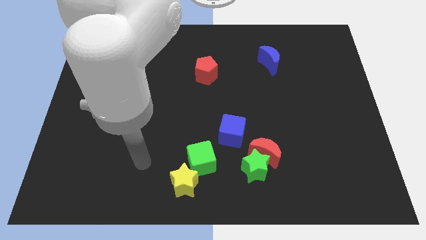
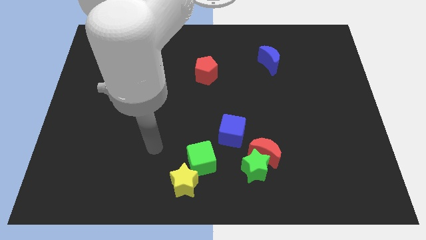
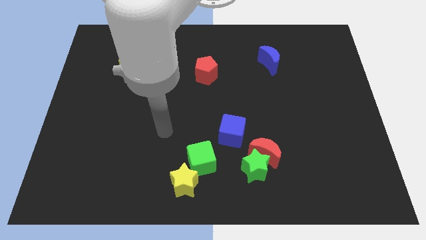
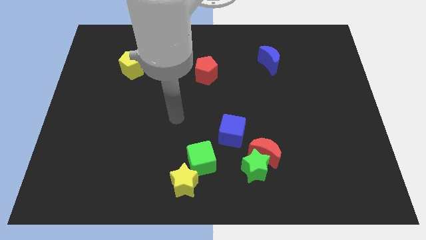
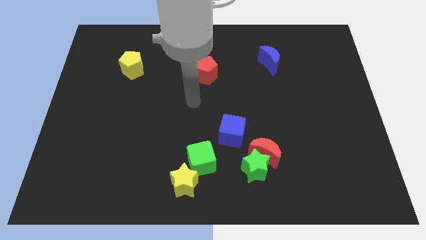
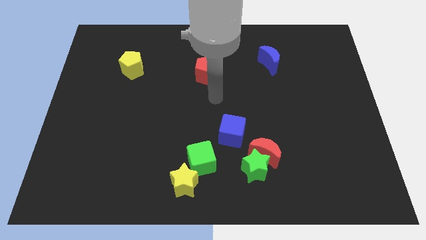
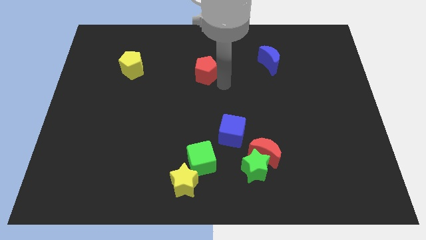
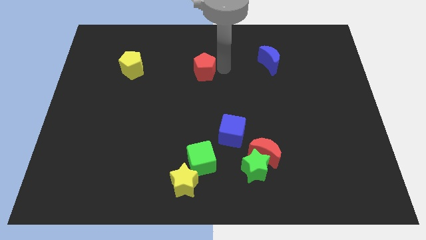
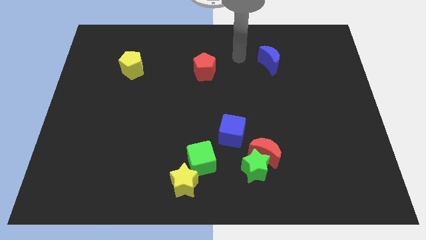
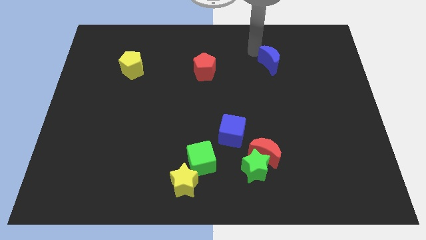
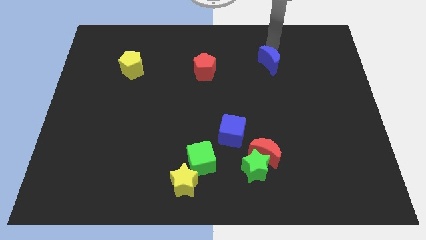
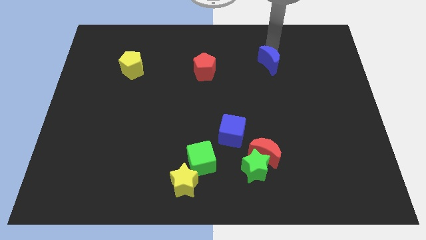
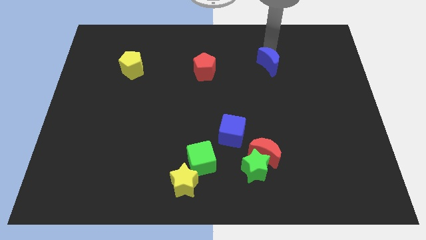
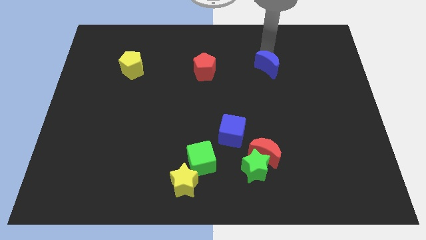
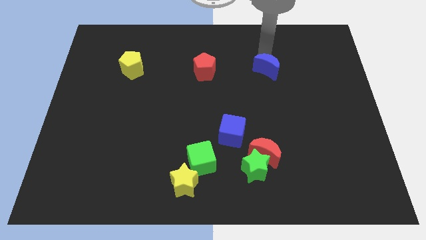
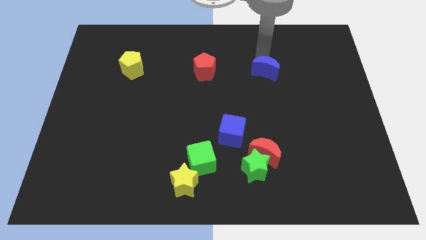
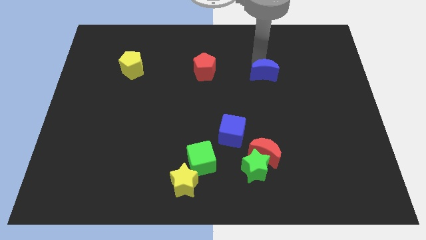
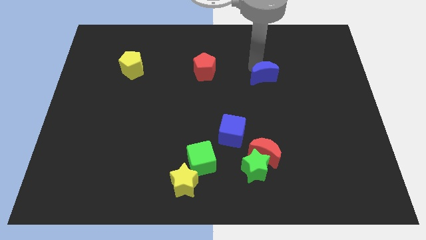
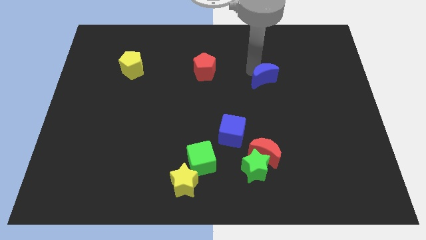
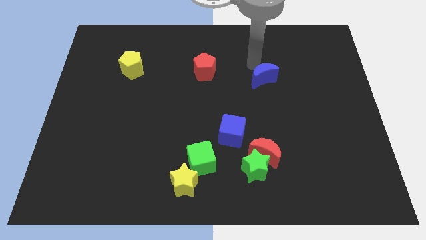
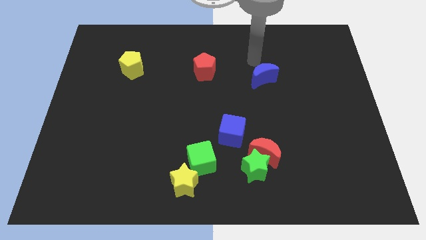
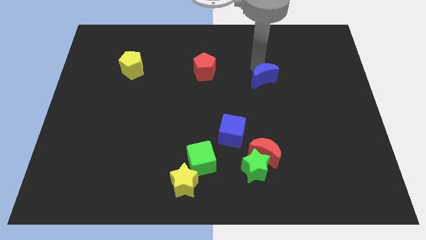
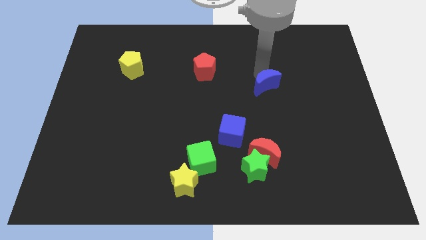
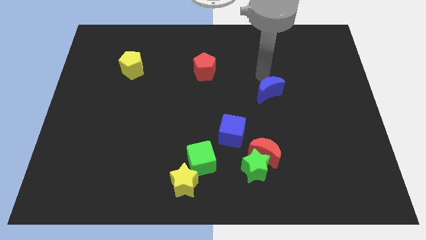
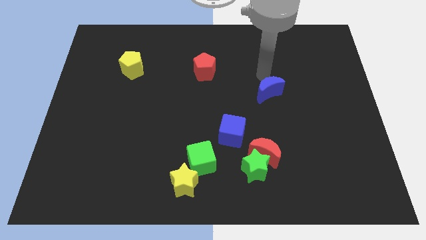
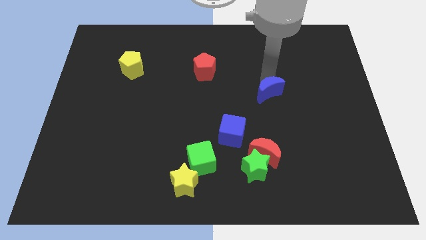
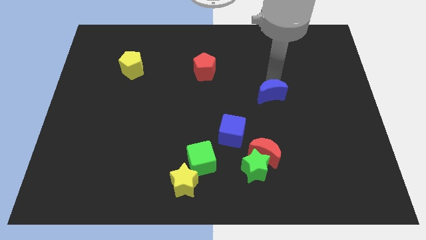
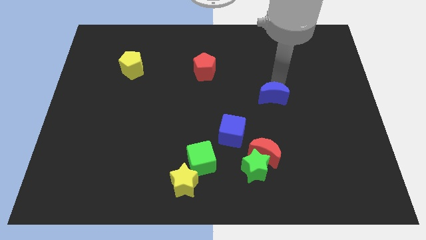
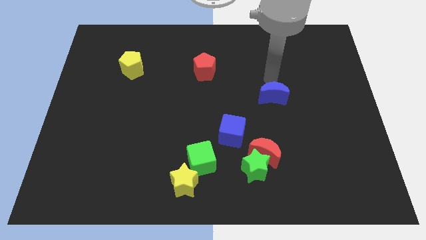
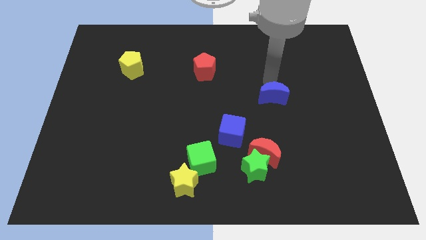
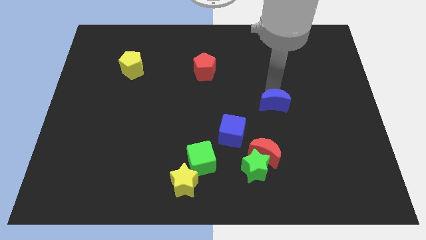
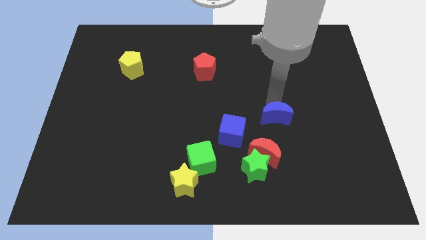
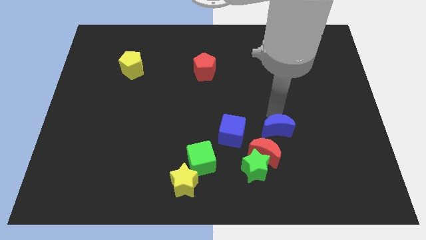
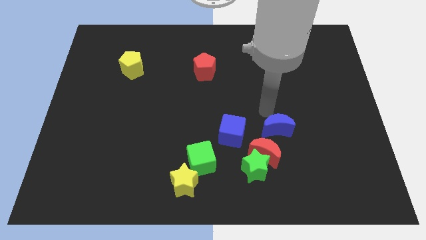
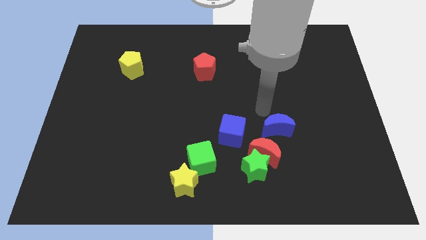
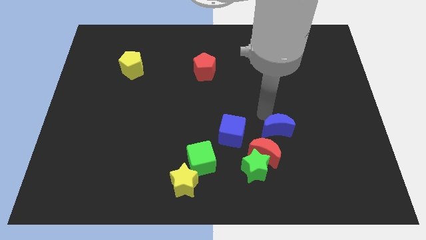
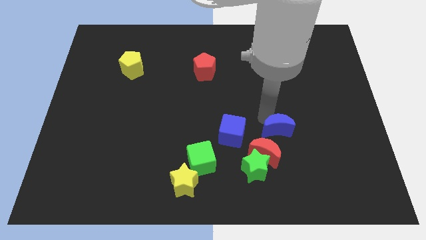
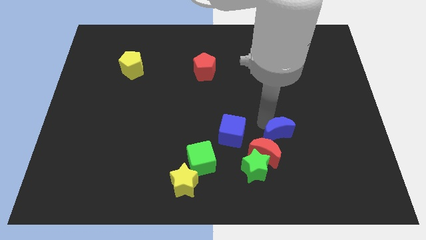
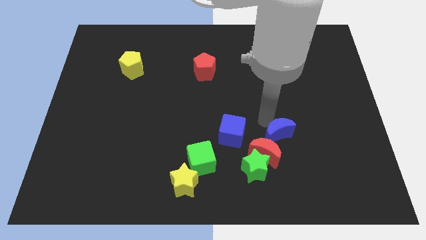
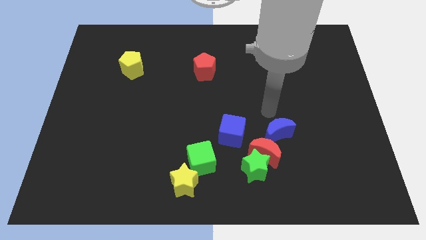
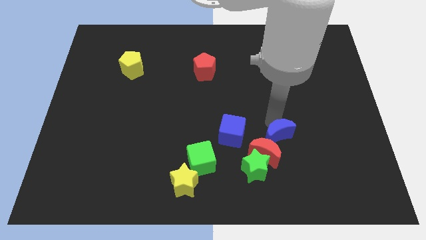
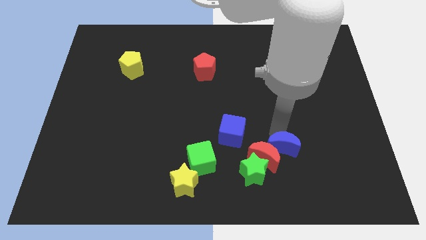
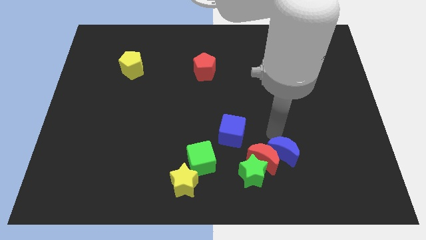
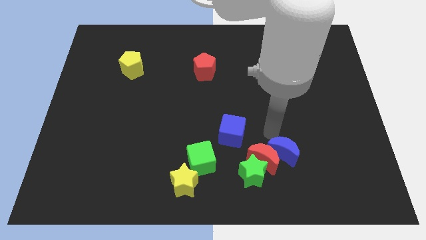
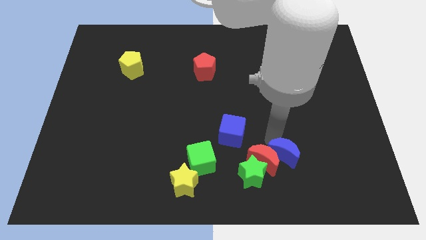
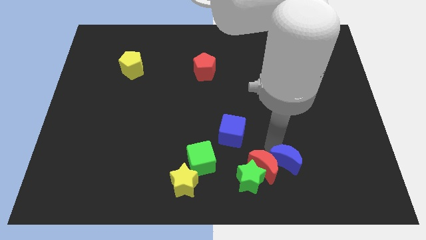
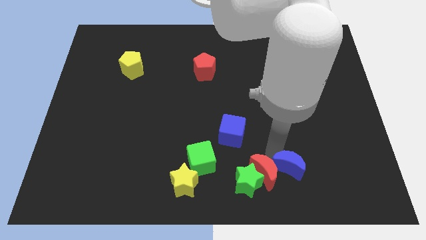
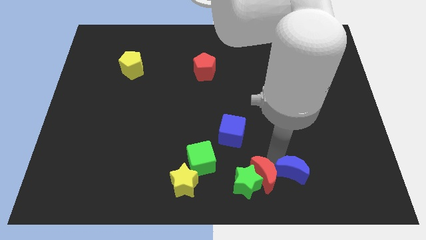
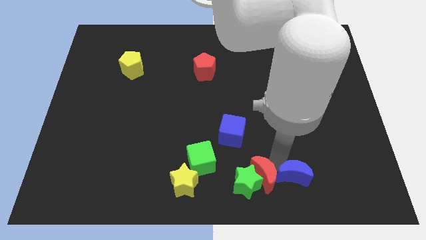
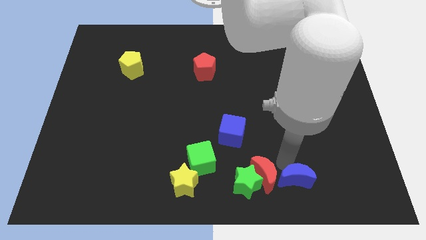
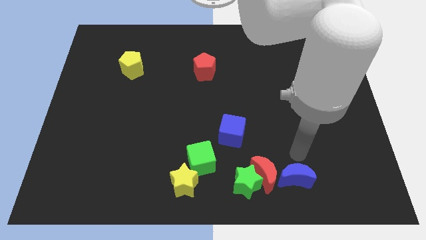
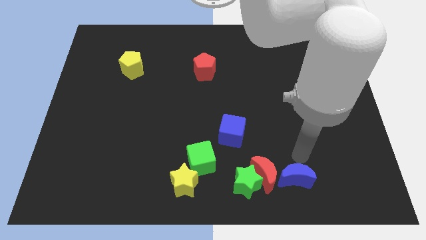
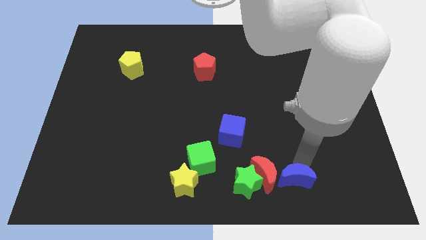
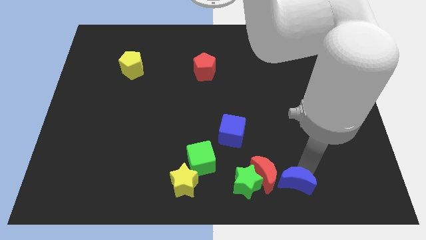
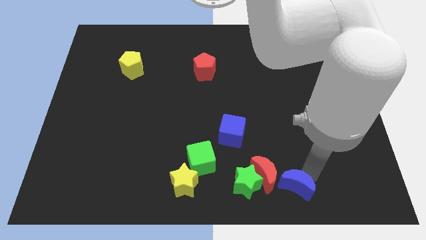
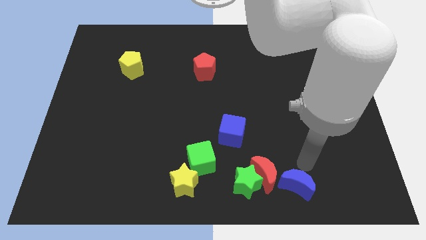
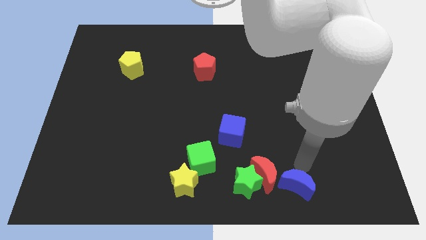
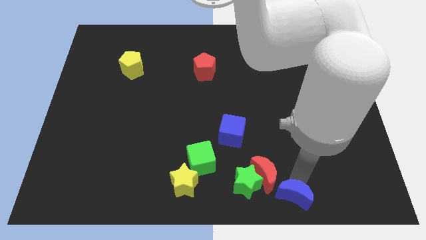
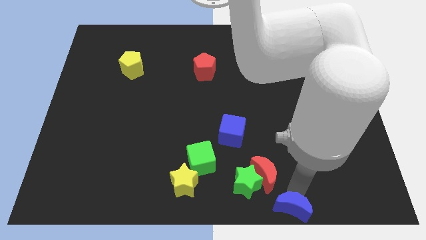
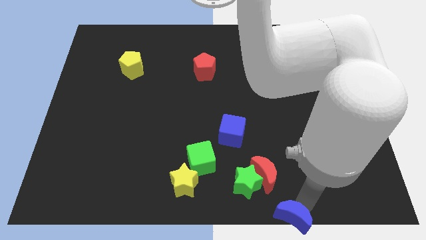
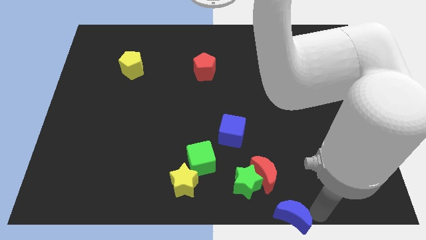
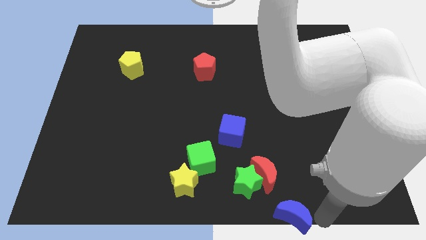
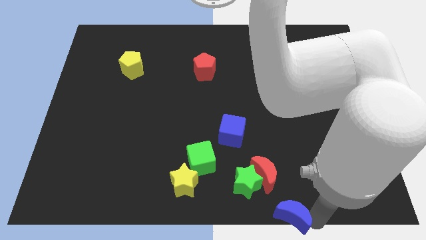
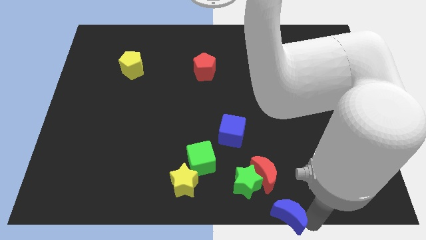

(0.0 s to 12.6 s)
put the blue moon to the bottom

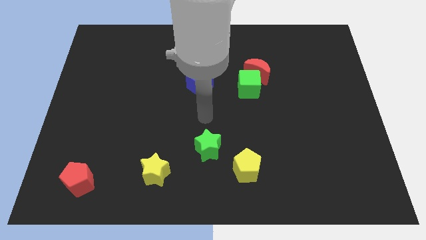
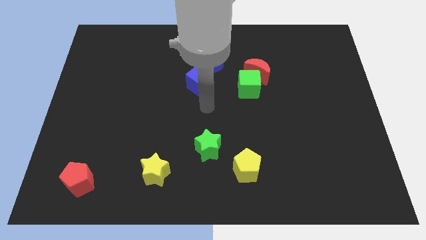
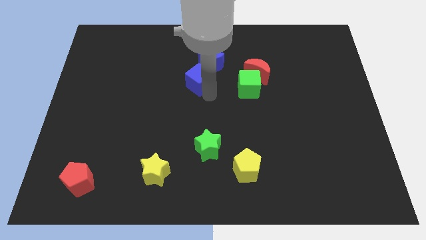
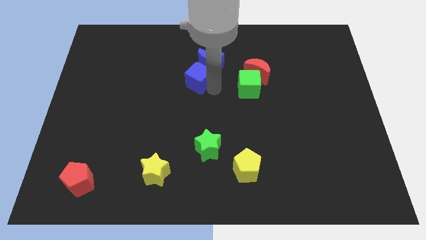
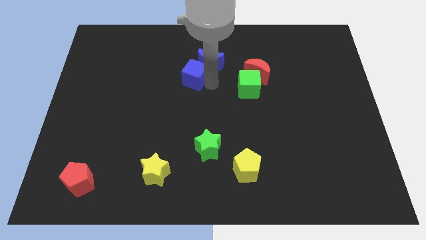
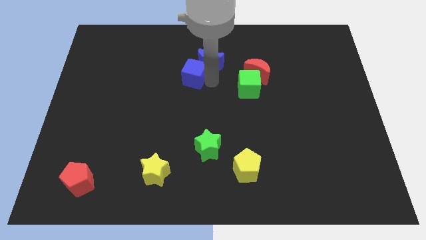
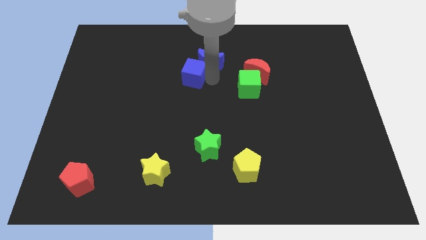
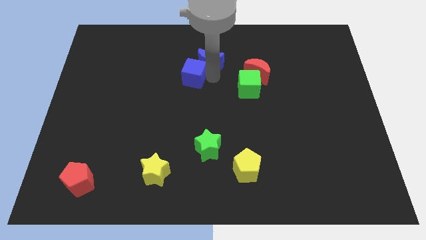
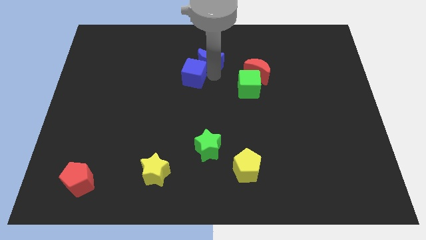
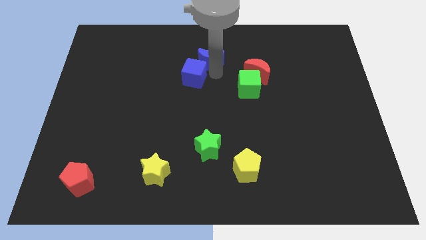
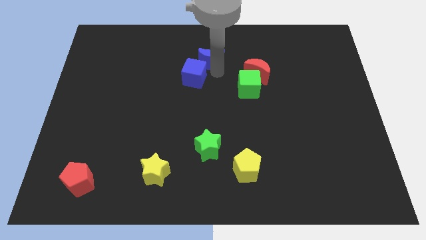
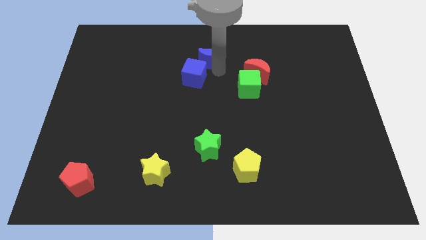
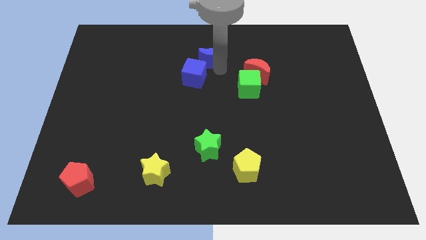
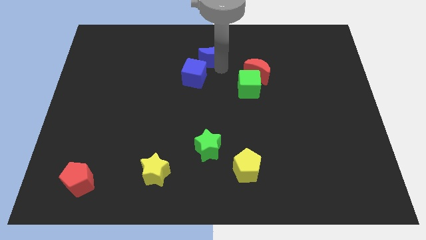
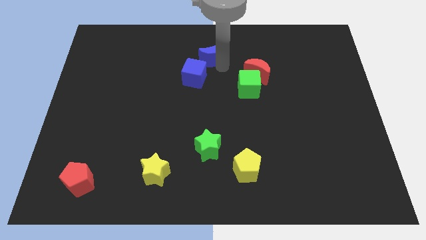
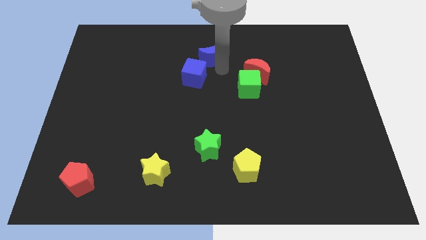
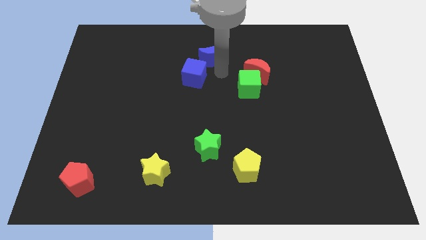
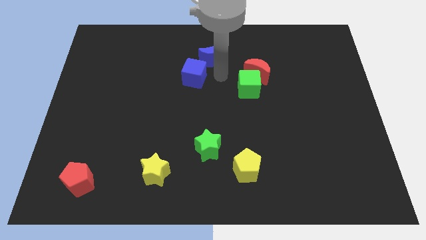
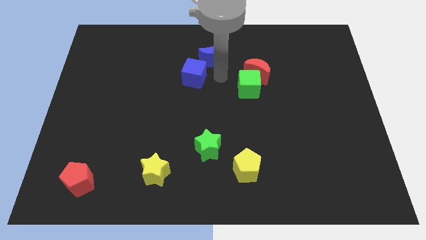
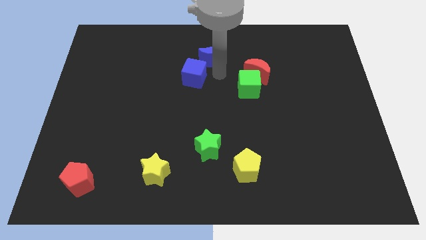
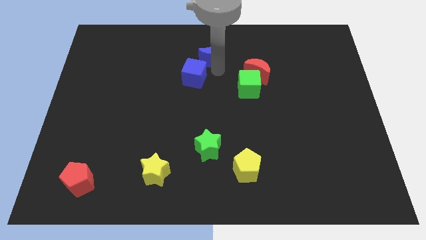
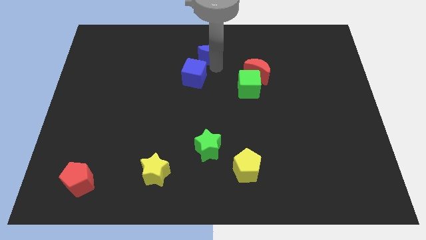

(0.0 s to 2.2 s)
slide the blue moon to the towards your base
